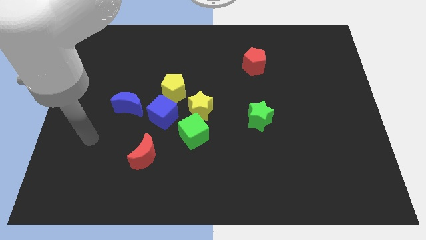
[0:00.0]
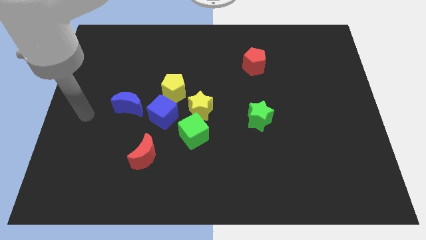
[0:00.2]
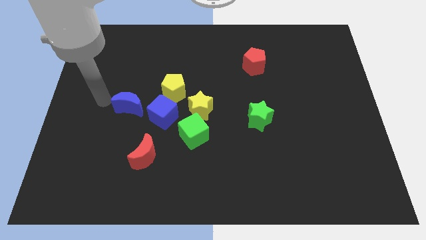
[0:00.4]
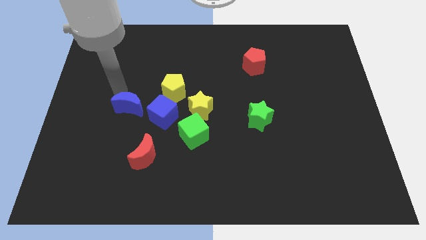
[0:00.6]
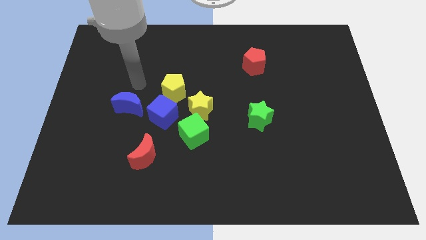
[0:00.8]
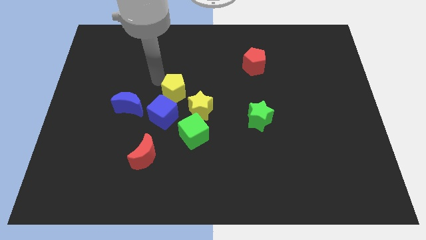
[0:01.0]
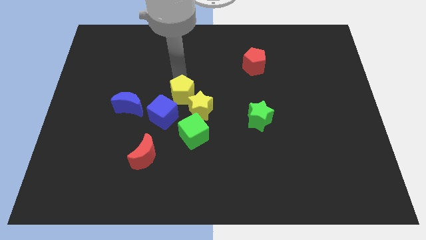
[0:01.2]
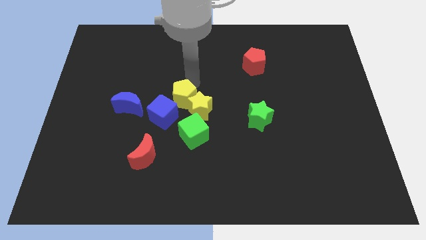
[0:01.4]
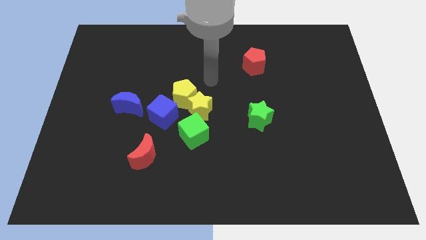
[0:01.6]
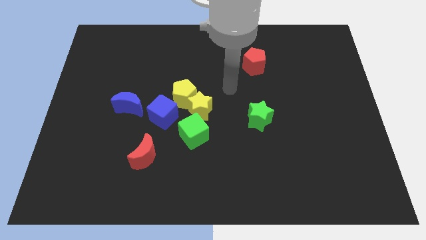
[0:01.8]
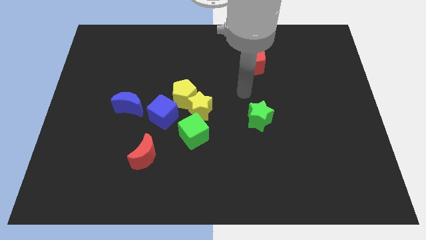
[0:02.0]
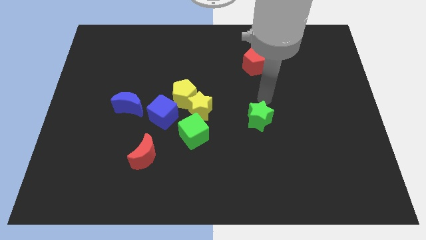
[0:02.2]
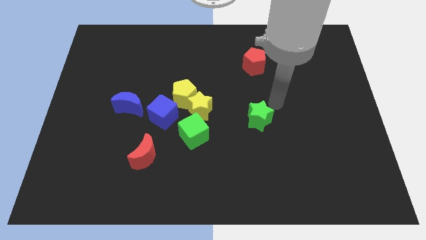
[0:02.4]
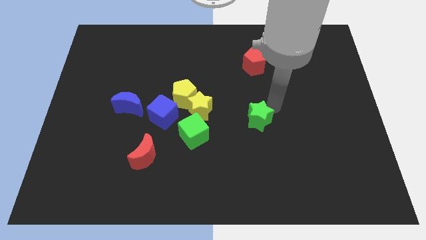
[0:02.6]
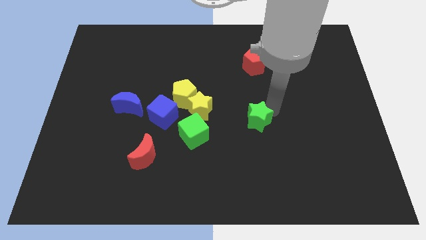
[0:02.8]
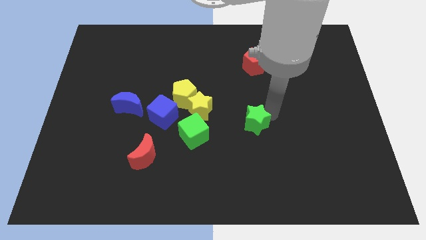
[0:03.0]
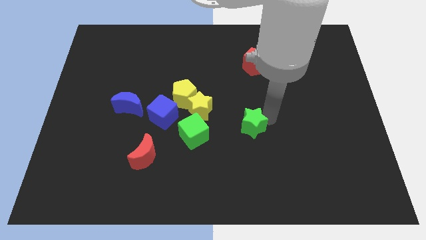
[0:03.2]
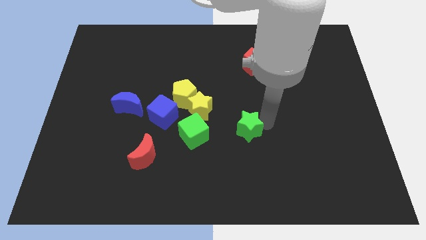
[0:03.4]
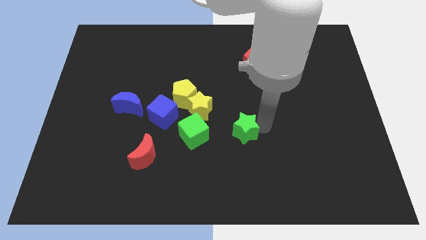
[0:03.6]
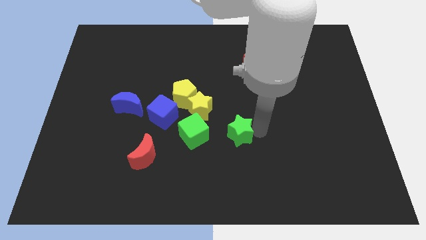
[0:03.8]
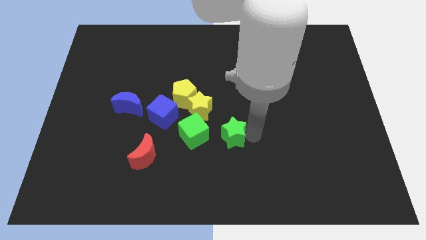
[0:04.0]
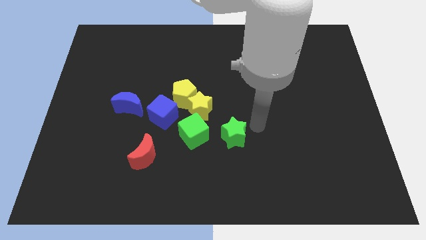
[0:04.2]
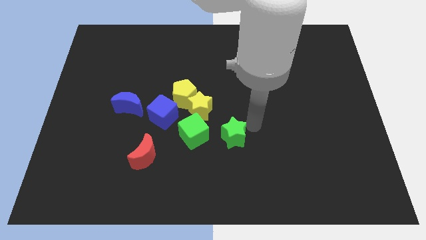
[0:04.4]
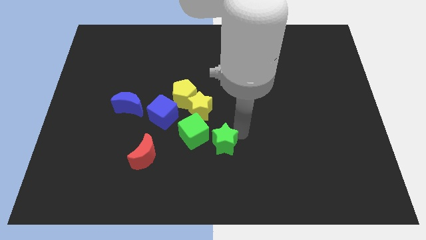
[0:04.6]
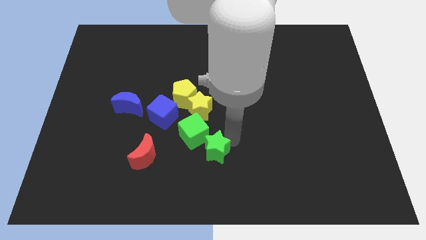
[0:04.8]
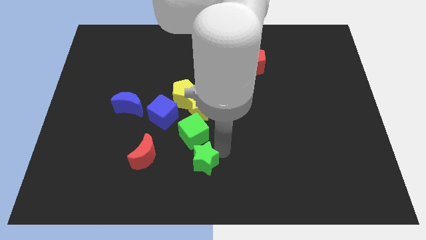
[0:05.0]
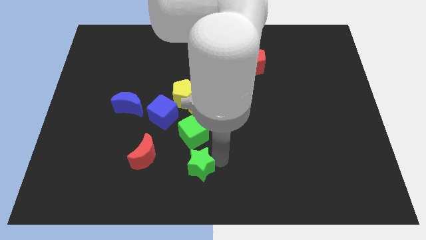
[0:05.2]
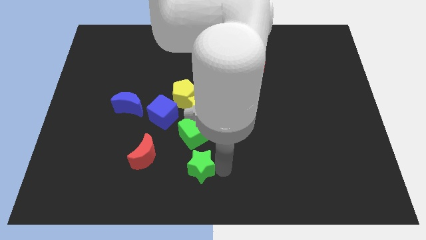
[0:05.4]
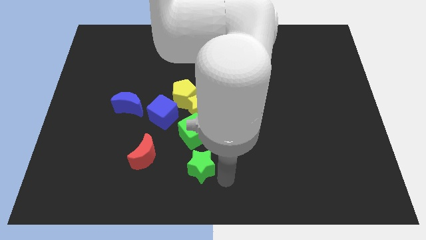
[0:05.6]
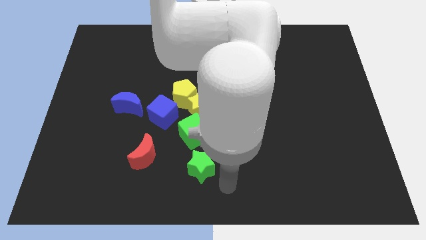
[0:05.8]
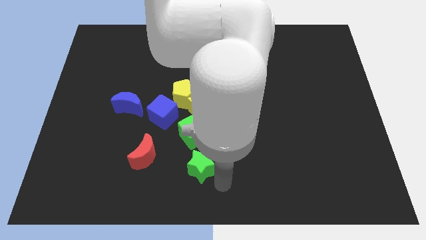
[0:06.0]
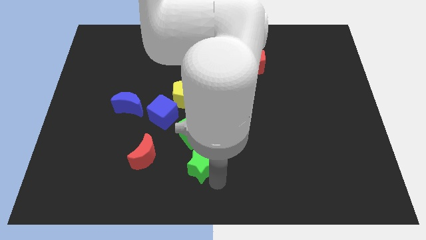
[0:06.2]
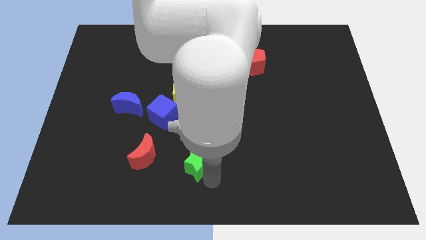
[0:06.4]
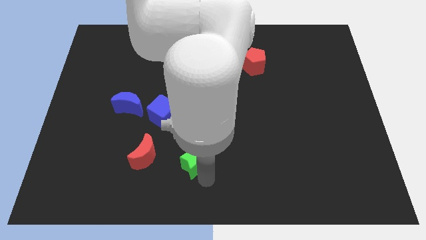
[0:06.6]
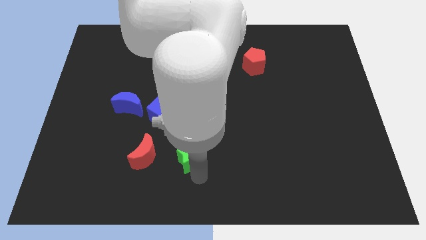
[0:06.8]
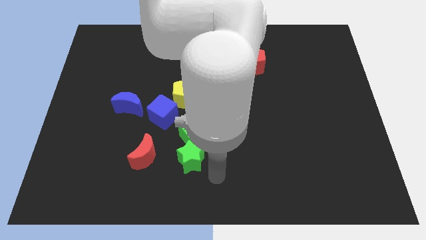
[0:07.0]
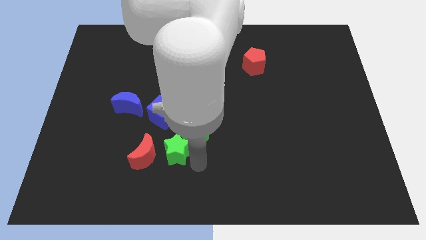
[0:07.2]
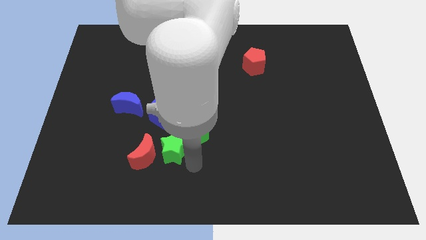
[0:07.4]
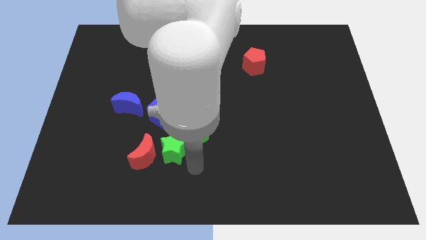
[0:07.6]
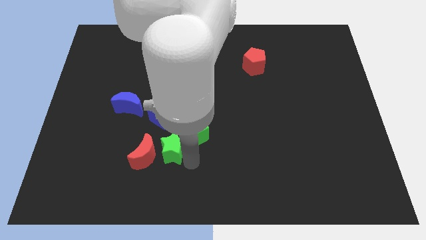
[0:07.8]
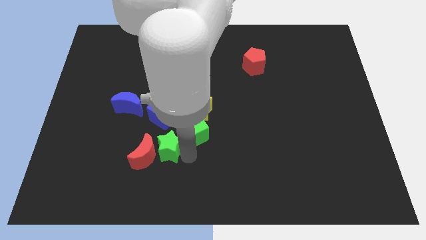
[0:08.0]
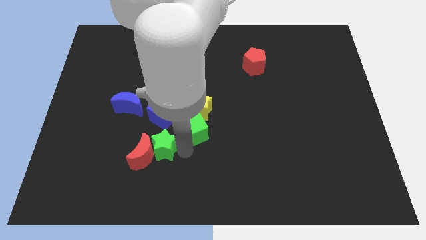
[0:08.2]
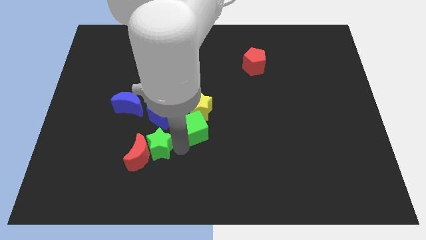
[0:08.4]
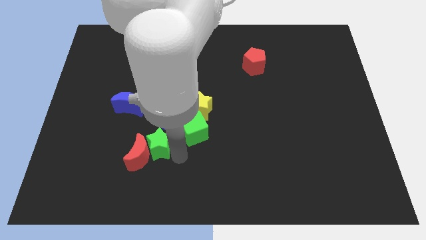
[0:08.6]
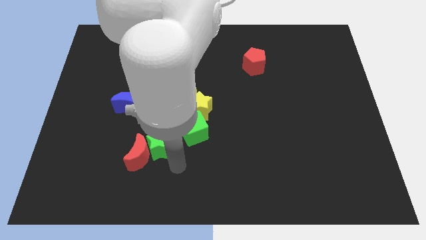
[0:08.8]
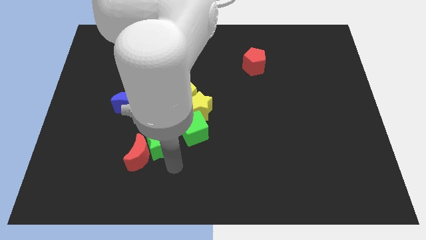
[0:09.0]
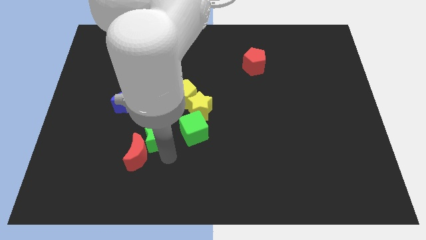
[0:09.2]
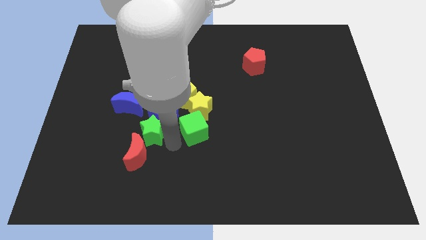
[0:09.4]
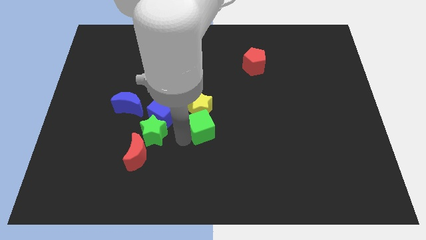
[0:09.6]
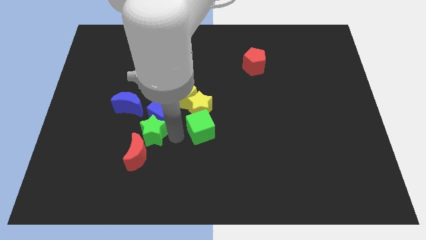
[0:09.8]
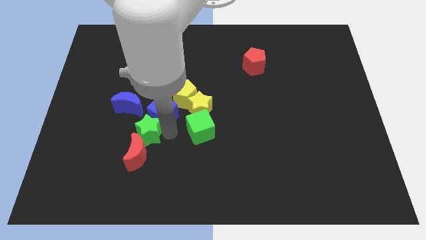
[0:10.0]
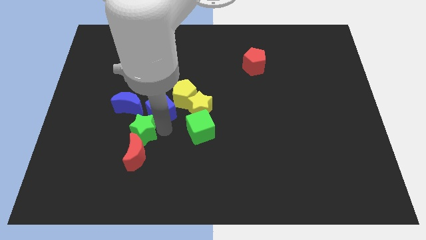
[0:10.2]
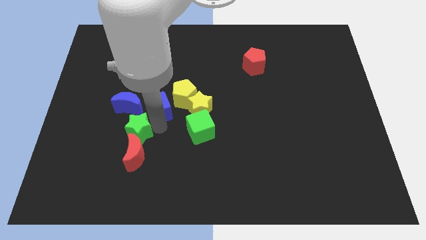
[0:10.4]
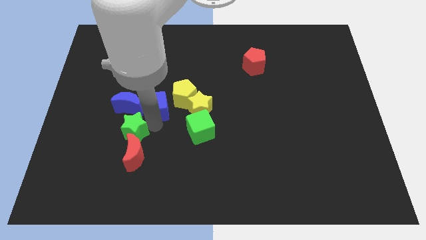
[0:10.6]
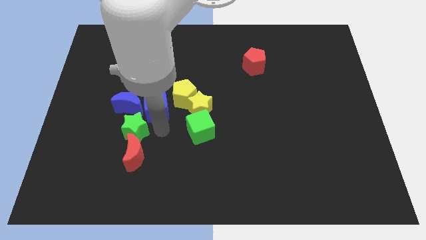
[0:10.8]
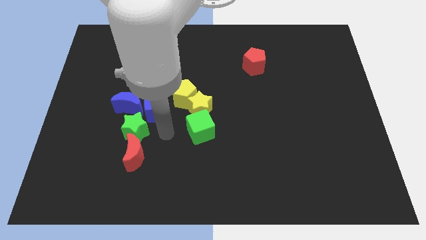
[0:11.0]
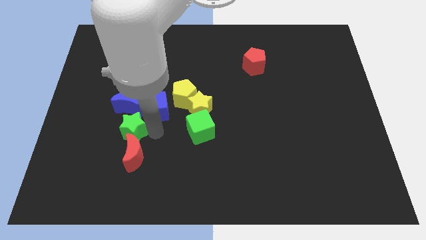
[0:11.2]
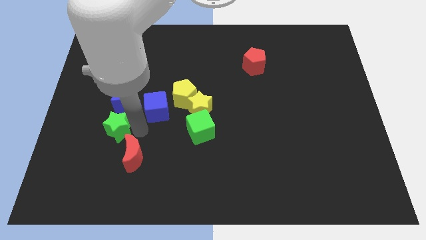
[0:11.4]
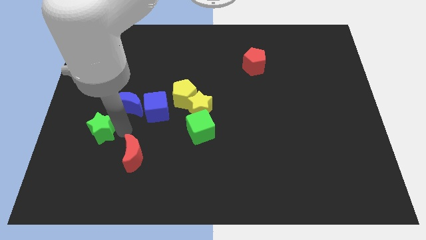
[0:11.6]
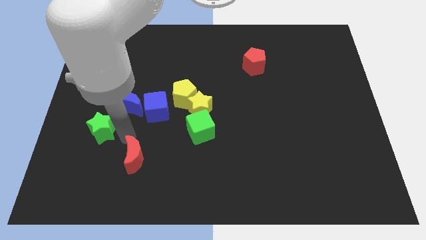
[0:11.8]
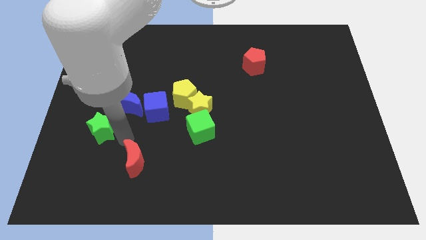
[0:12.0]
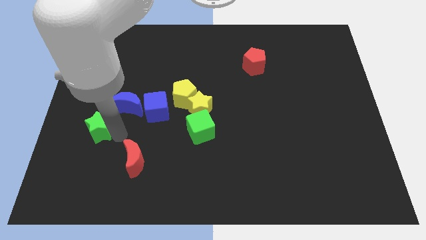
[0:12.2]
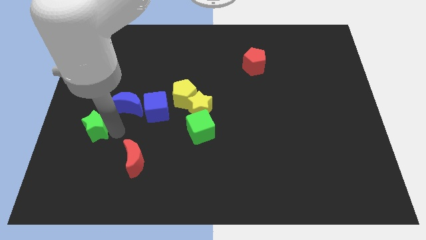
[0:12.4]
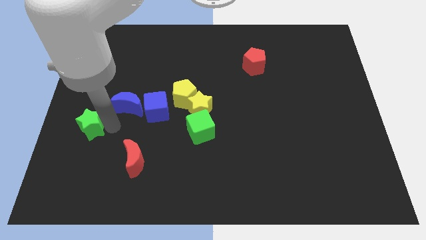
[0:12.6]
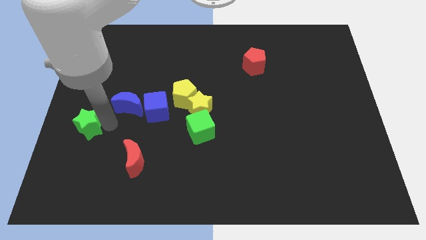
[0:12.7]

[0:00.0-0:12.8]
put the green star to the center left
